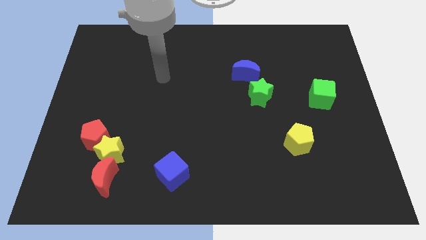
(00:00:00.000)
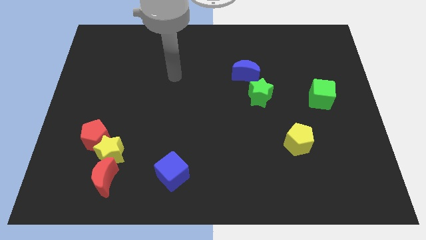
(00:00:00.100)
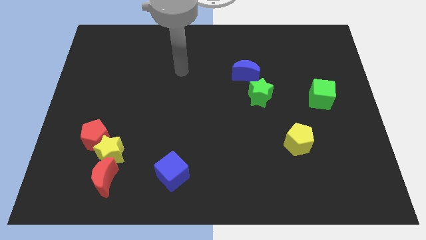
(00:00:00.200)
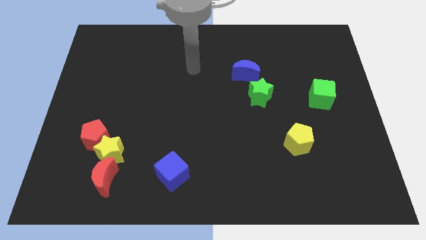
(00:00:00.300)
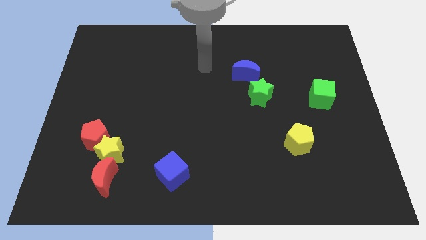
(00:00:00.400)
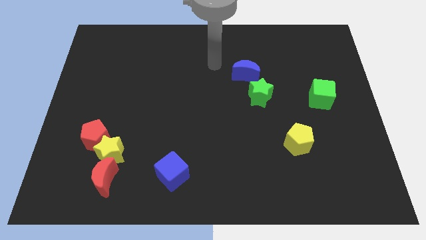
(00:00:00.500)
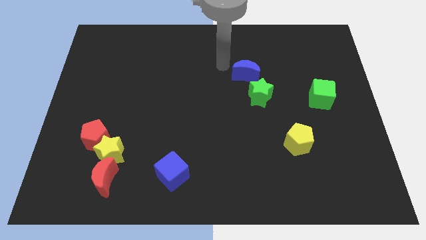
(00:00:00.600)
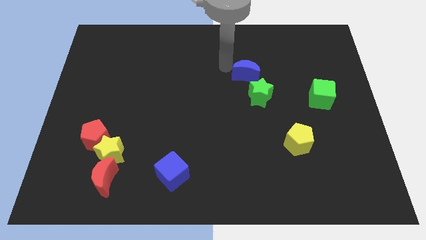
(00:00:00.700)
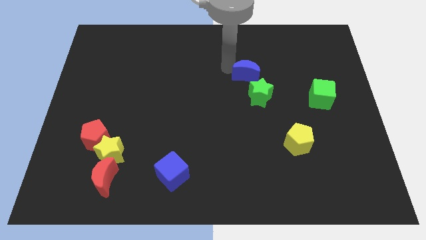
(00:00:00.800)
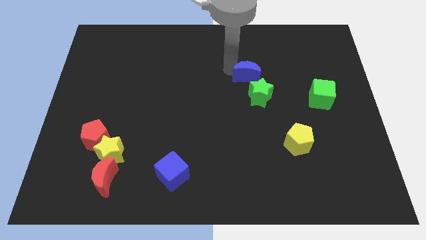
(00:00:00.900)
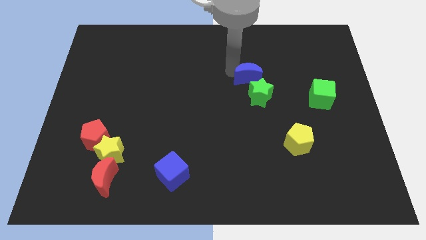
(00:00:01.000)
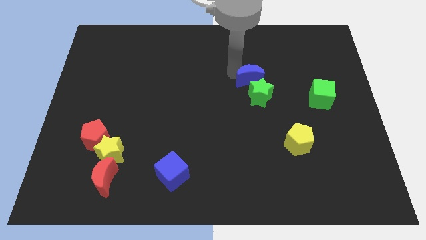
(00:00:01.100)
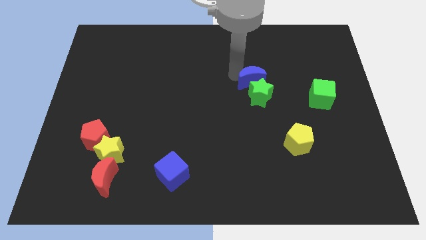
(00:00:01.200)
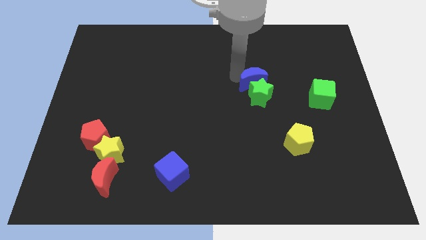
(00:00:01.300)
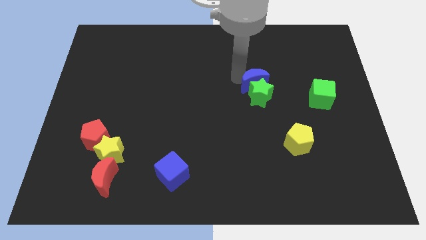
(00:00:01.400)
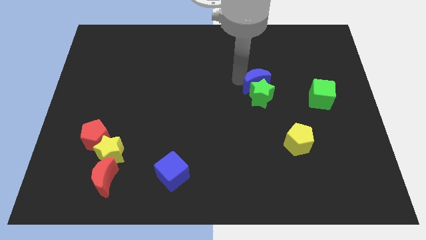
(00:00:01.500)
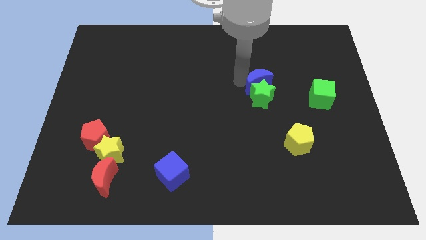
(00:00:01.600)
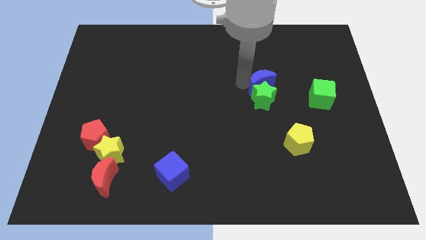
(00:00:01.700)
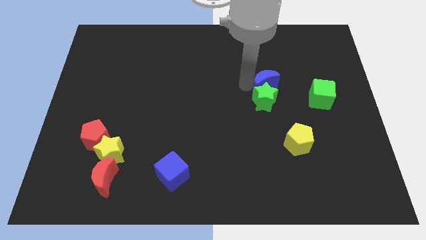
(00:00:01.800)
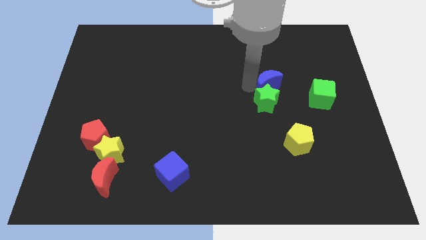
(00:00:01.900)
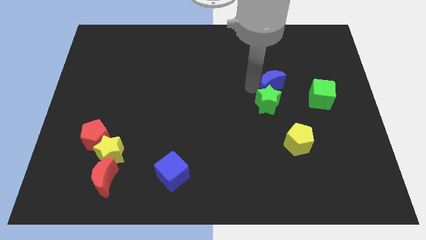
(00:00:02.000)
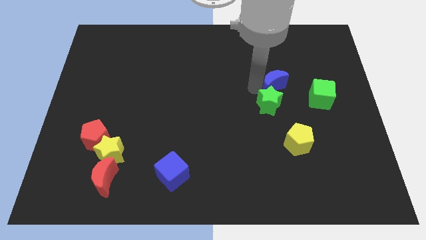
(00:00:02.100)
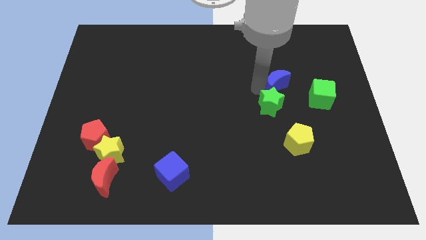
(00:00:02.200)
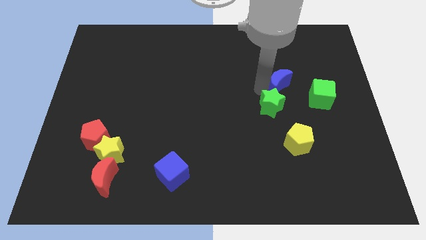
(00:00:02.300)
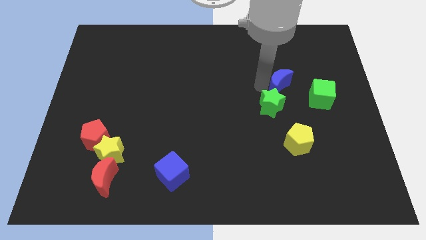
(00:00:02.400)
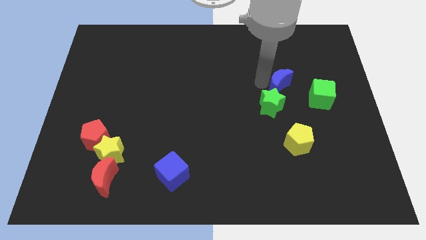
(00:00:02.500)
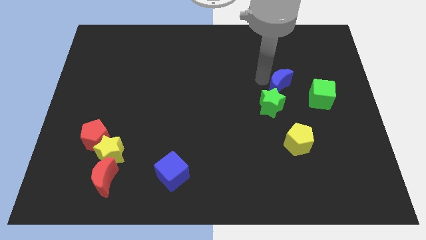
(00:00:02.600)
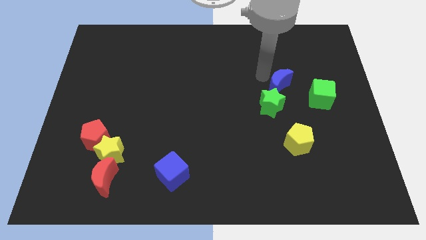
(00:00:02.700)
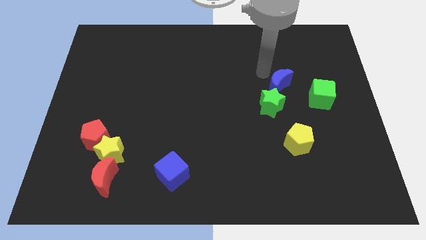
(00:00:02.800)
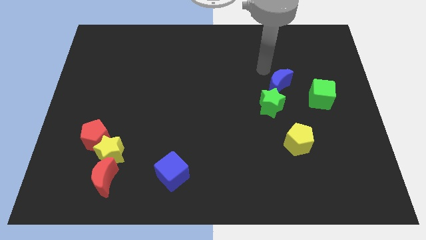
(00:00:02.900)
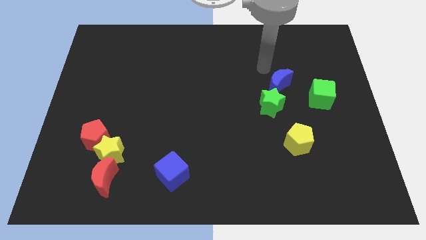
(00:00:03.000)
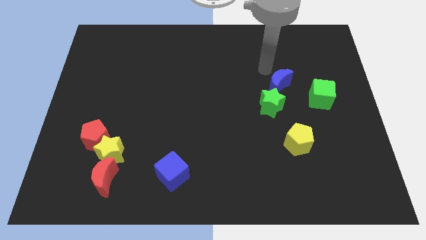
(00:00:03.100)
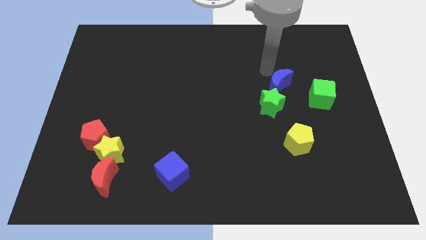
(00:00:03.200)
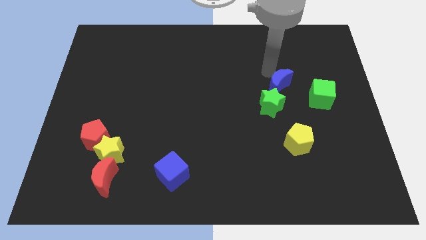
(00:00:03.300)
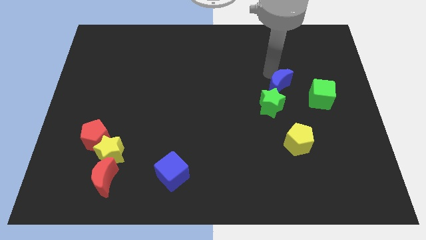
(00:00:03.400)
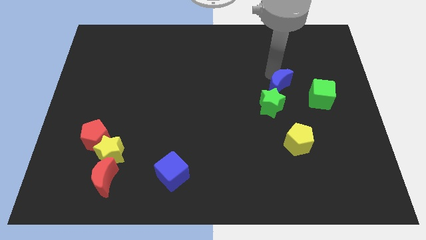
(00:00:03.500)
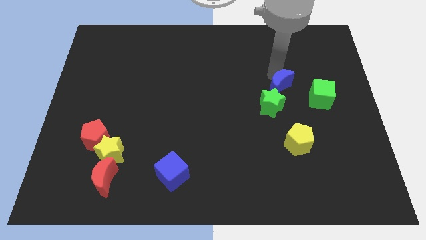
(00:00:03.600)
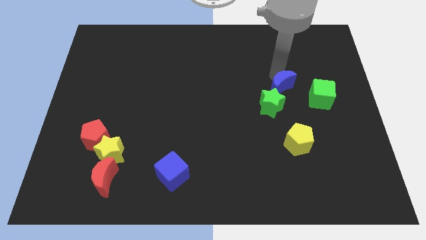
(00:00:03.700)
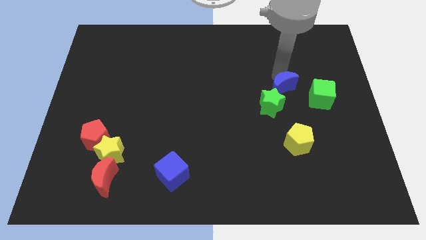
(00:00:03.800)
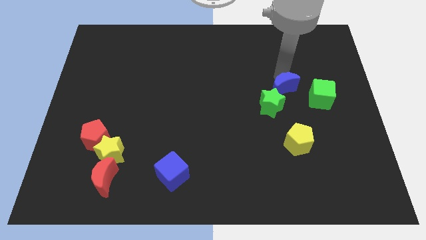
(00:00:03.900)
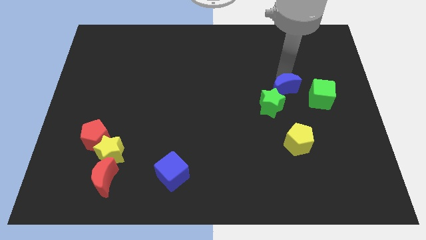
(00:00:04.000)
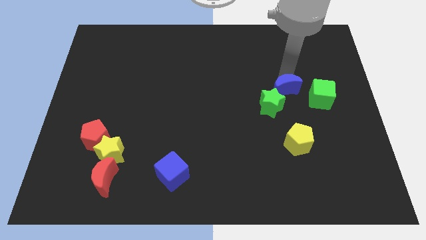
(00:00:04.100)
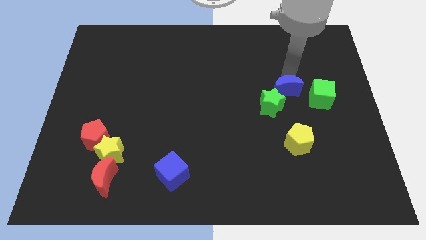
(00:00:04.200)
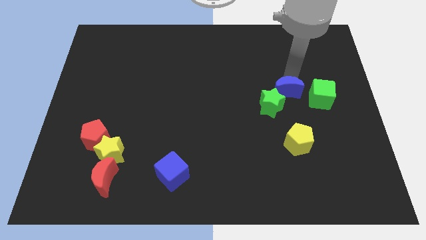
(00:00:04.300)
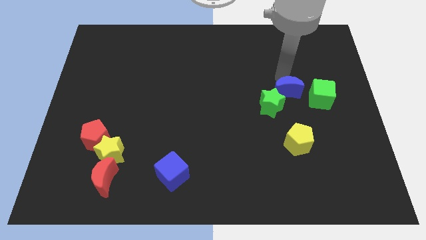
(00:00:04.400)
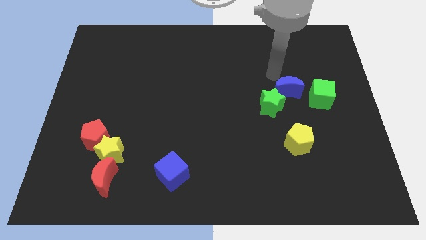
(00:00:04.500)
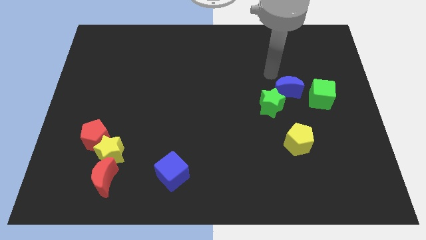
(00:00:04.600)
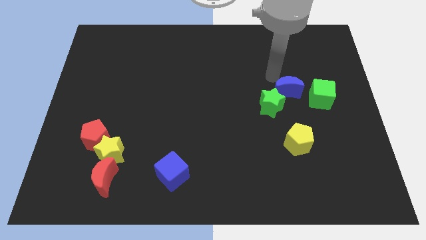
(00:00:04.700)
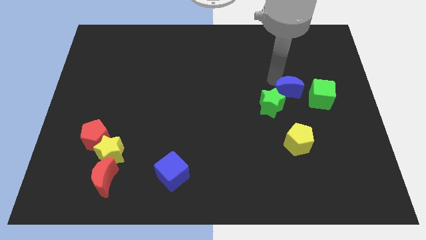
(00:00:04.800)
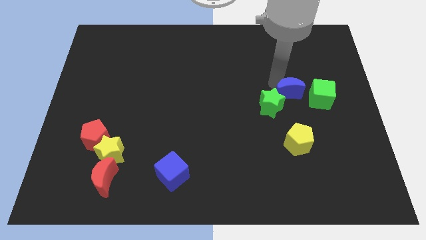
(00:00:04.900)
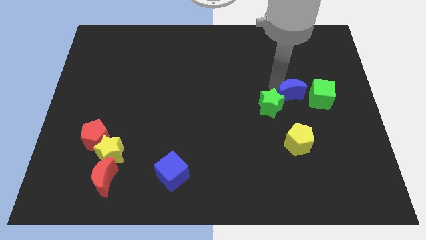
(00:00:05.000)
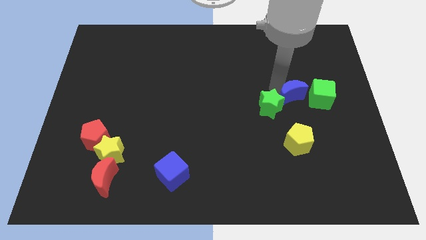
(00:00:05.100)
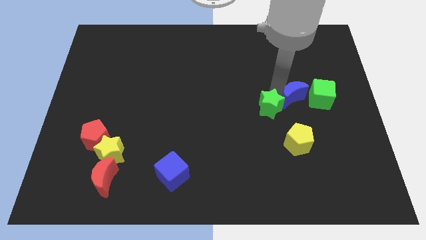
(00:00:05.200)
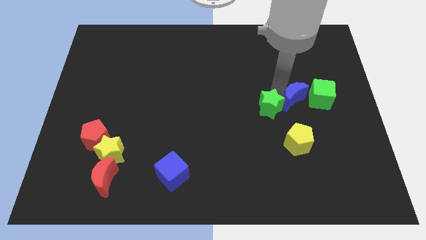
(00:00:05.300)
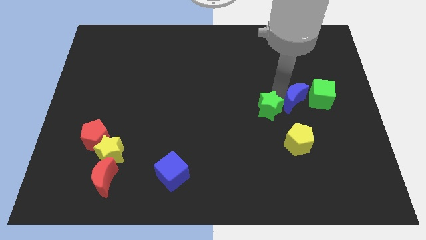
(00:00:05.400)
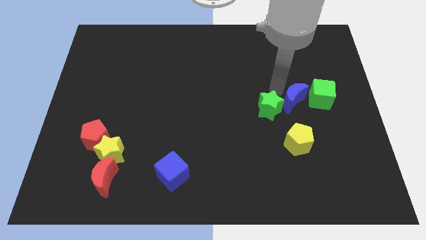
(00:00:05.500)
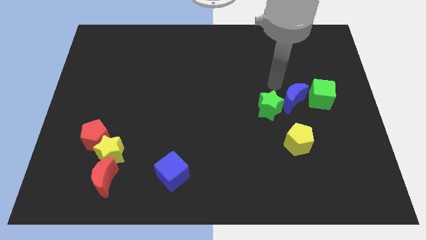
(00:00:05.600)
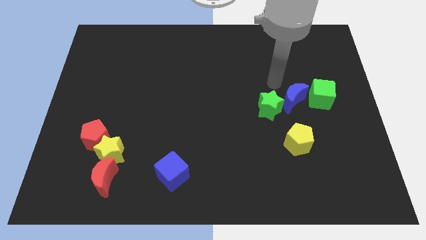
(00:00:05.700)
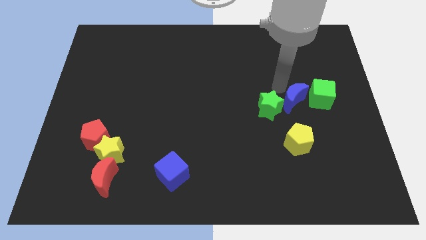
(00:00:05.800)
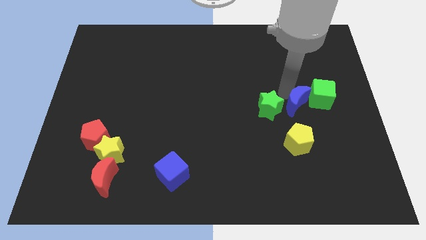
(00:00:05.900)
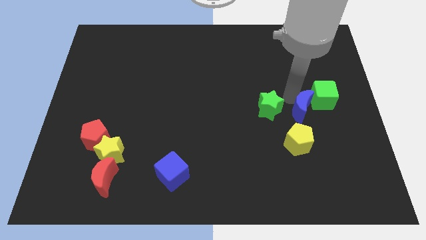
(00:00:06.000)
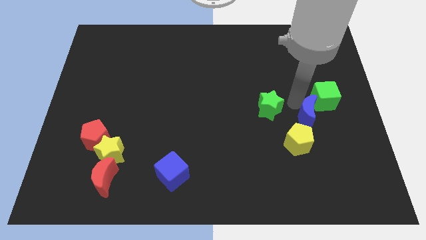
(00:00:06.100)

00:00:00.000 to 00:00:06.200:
slide the blue moon to the top right side of the yellow pentagon

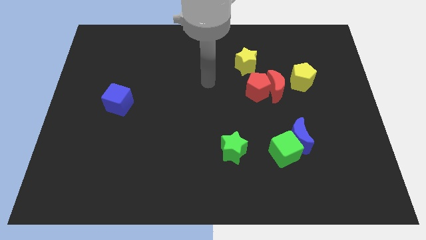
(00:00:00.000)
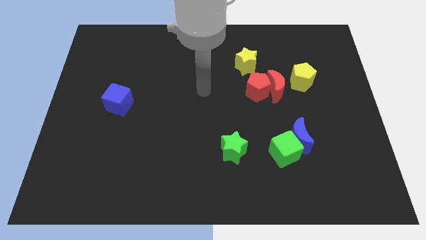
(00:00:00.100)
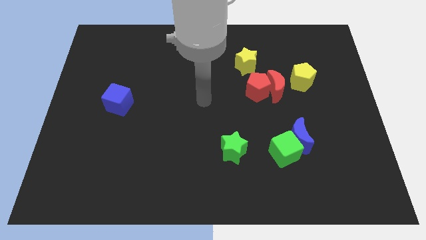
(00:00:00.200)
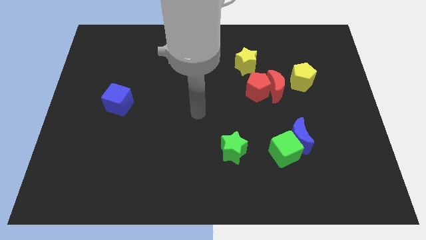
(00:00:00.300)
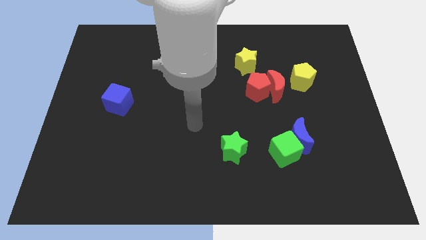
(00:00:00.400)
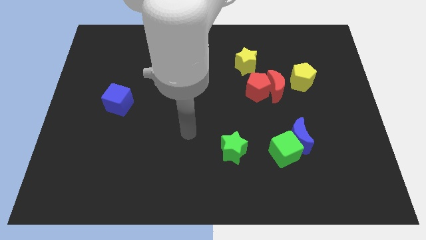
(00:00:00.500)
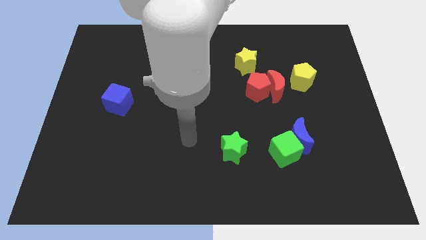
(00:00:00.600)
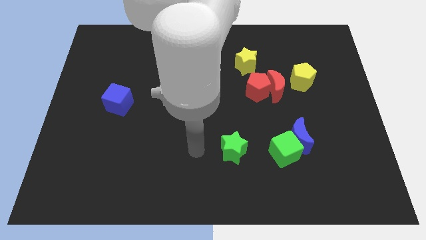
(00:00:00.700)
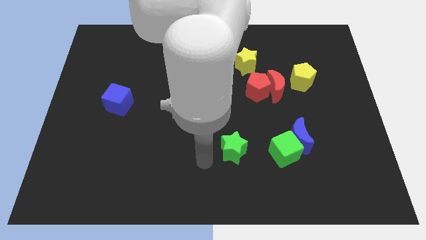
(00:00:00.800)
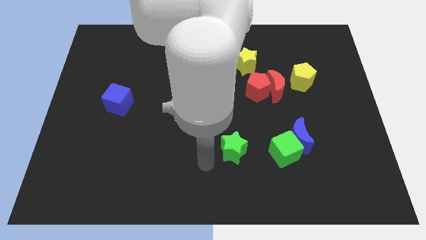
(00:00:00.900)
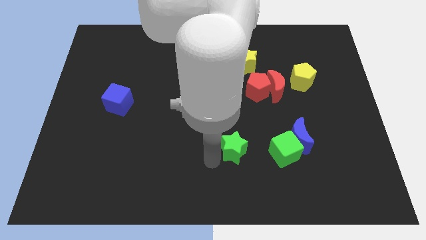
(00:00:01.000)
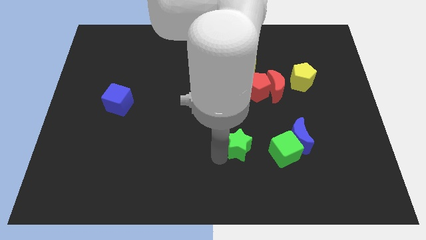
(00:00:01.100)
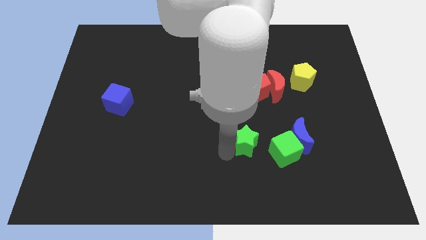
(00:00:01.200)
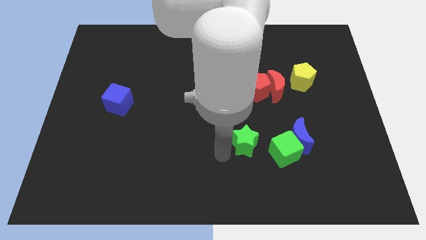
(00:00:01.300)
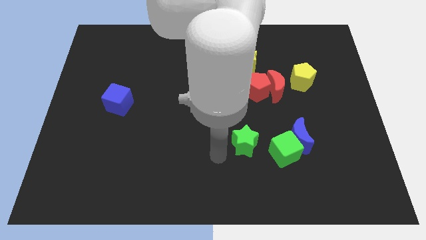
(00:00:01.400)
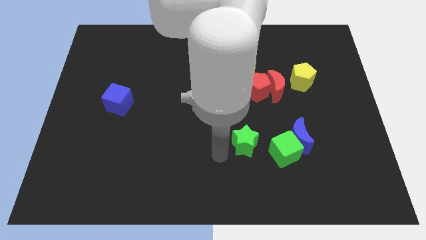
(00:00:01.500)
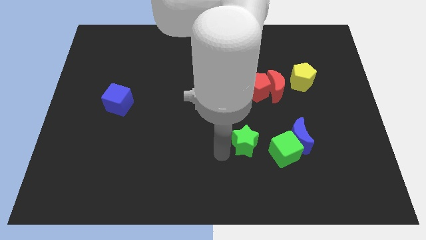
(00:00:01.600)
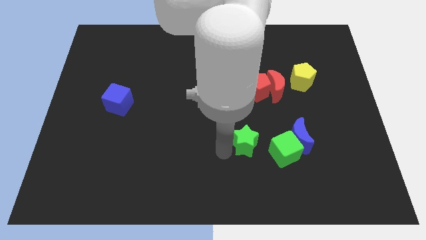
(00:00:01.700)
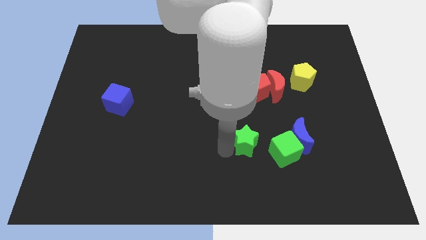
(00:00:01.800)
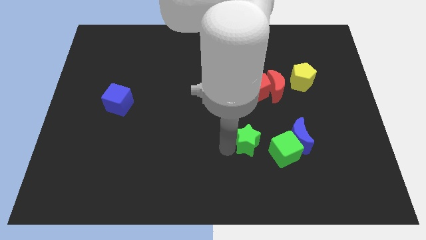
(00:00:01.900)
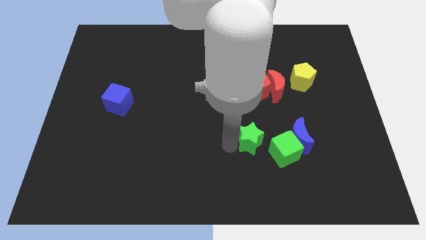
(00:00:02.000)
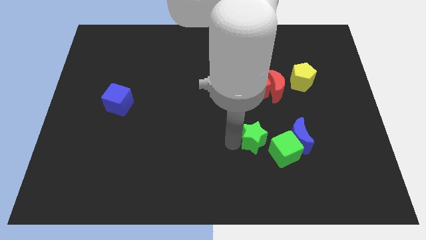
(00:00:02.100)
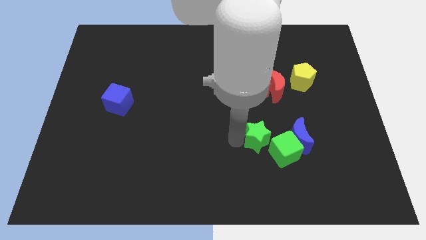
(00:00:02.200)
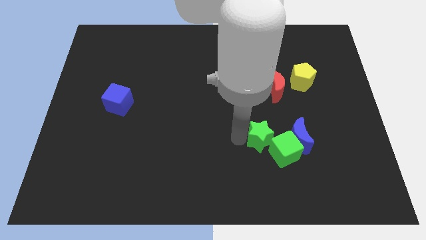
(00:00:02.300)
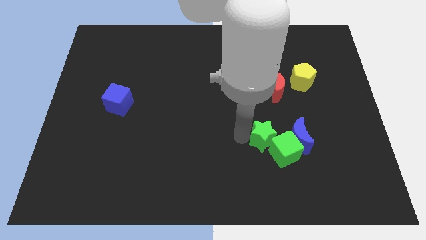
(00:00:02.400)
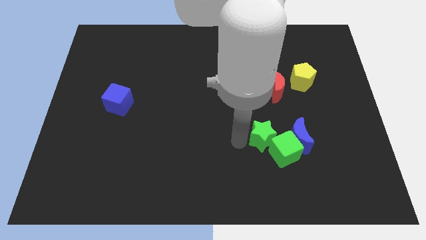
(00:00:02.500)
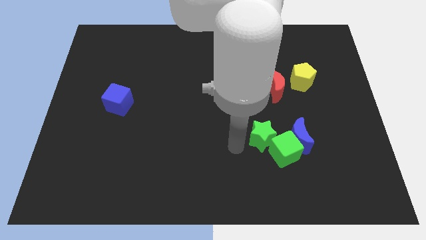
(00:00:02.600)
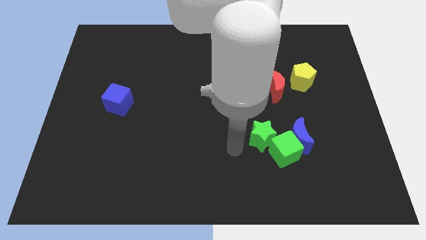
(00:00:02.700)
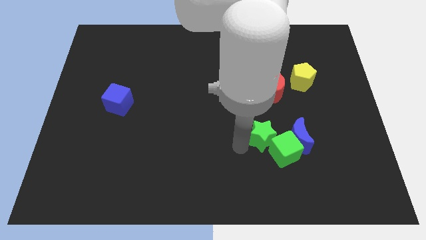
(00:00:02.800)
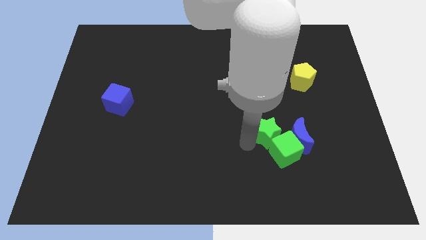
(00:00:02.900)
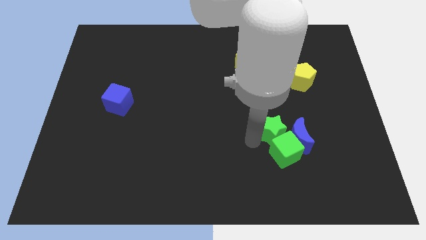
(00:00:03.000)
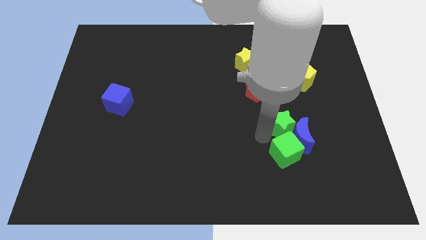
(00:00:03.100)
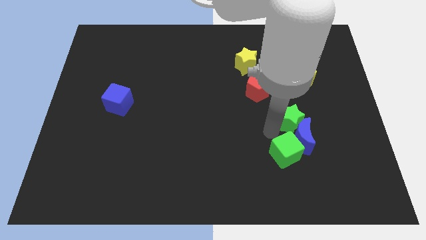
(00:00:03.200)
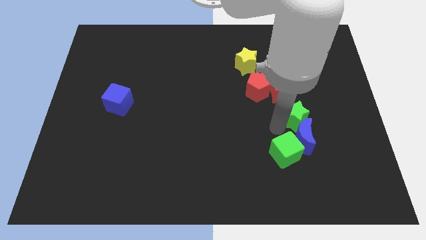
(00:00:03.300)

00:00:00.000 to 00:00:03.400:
slide the green star below the yellow pentagon
